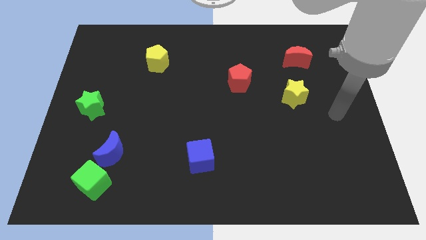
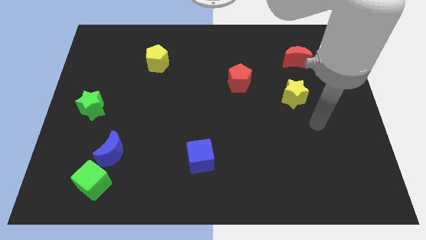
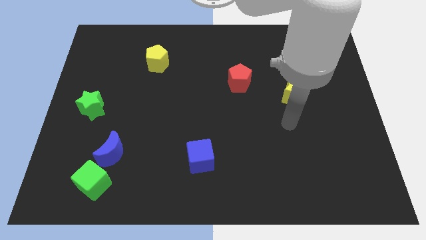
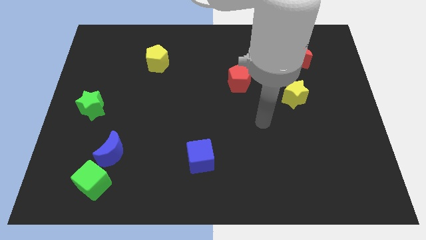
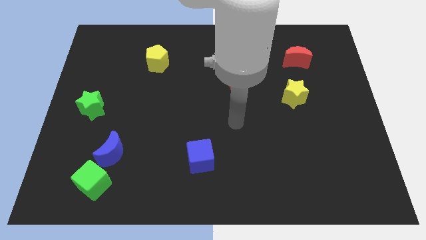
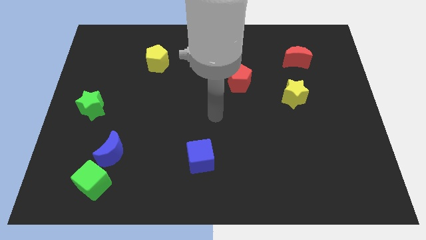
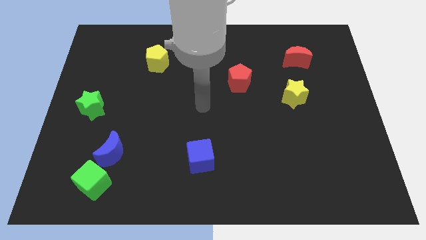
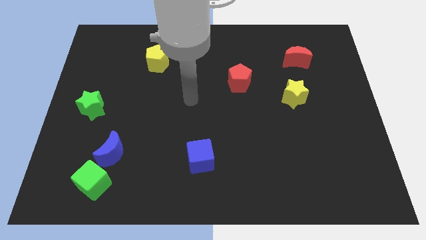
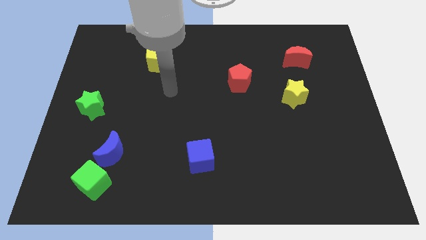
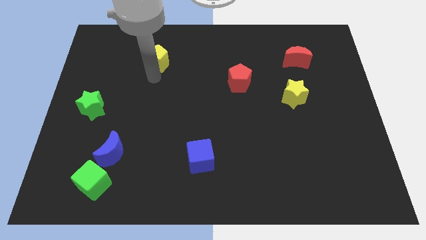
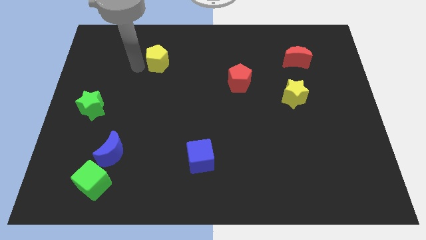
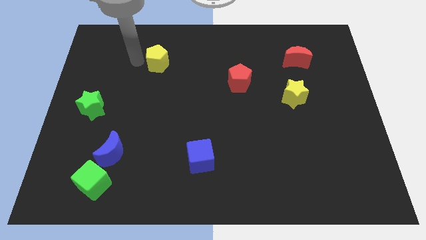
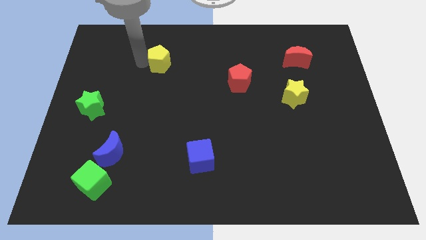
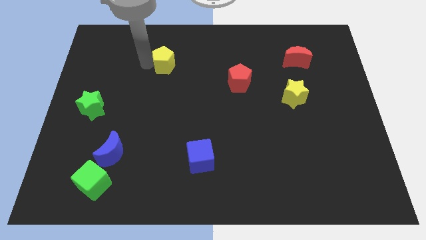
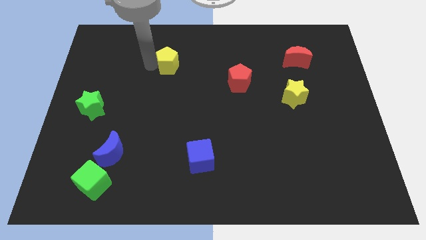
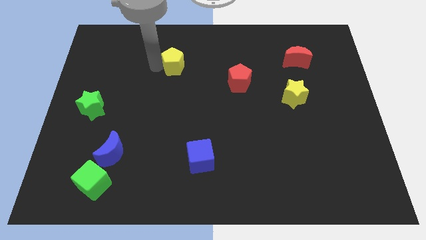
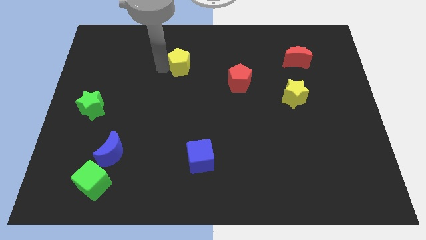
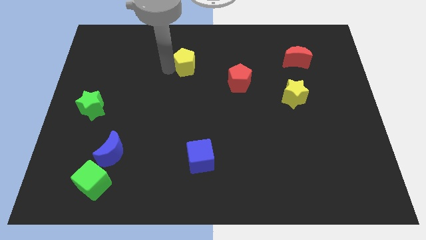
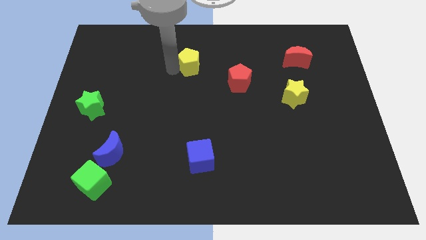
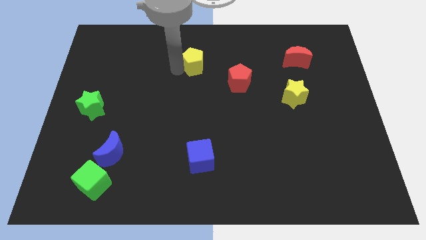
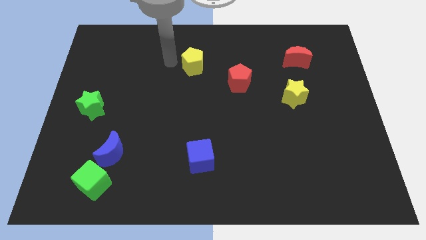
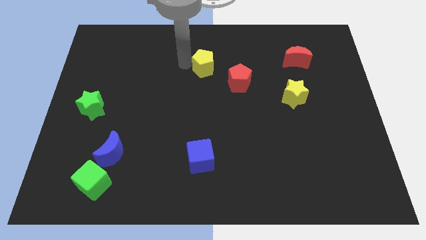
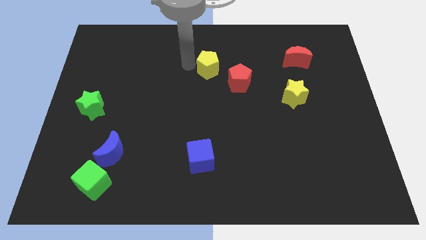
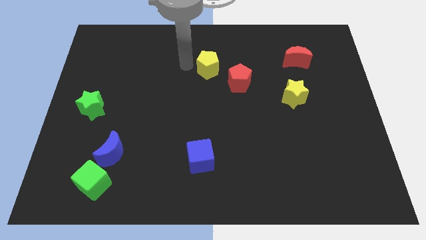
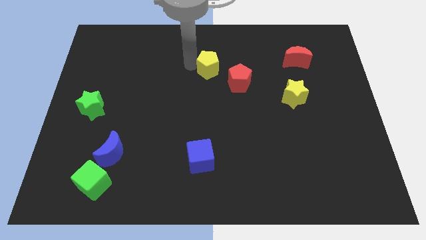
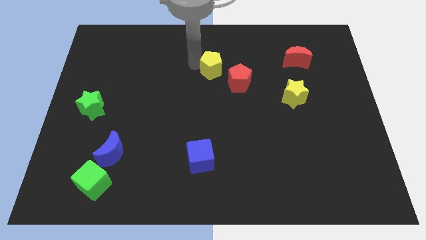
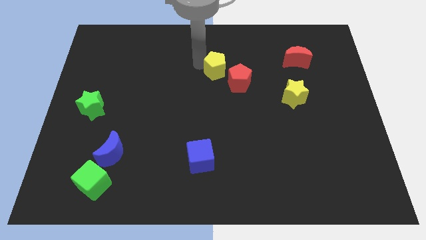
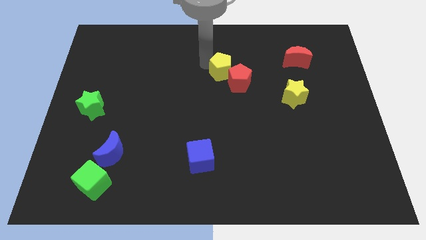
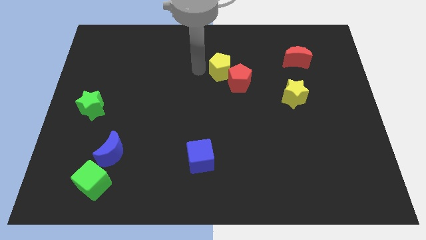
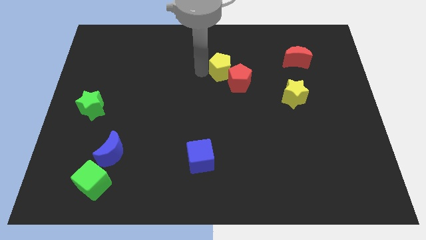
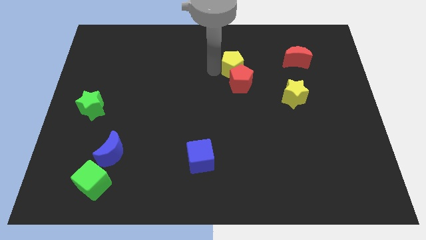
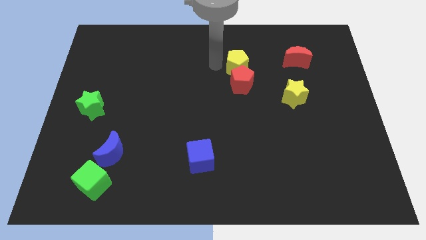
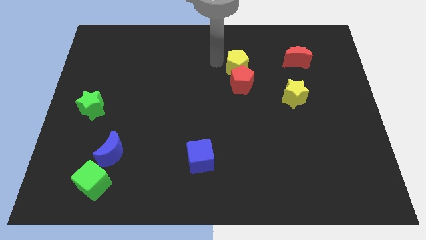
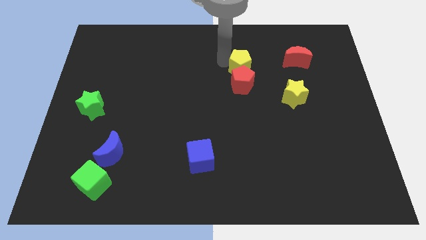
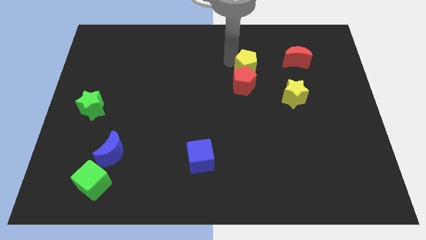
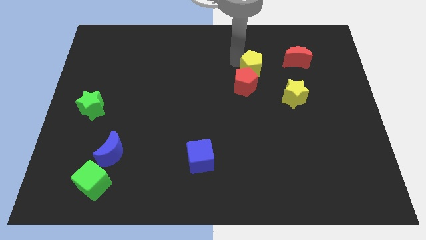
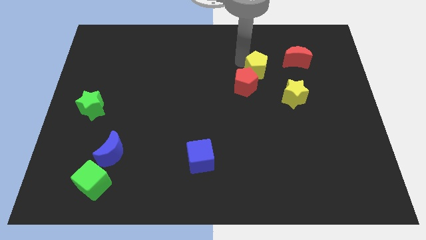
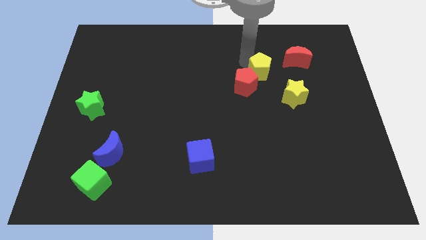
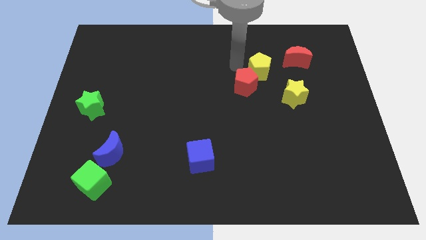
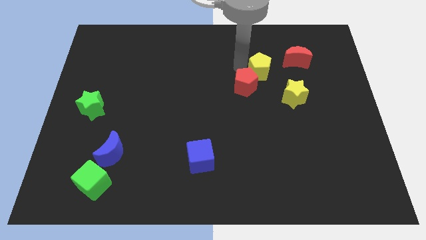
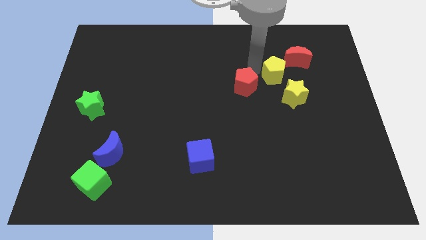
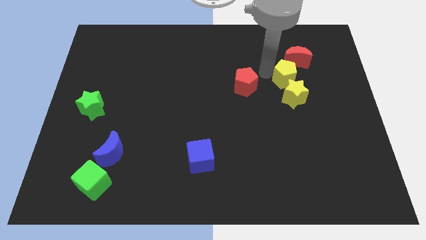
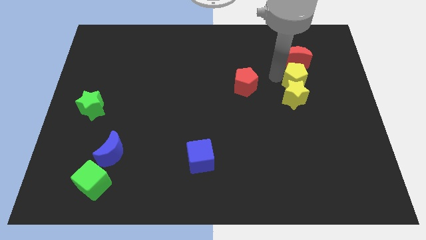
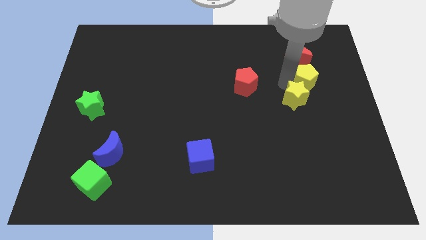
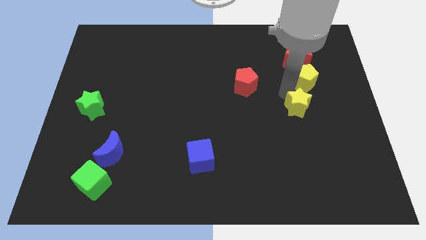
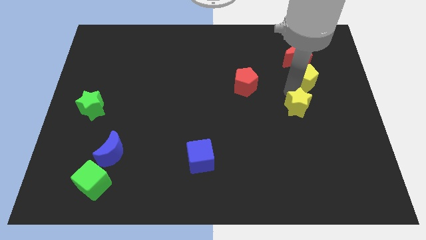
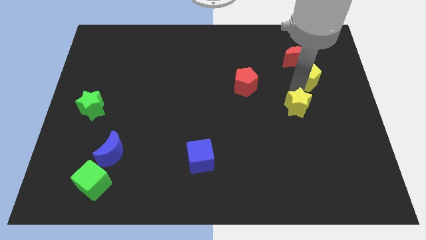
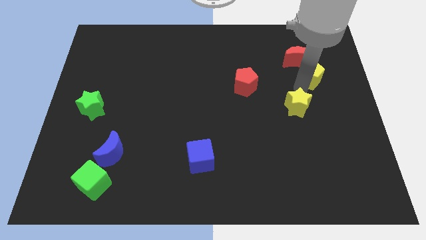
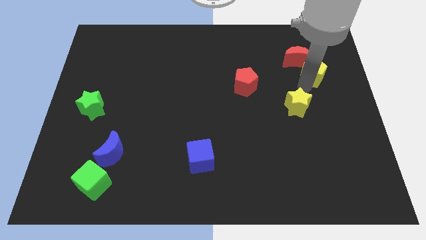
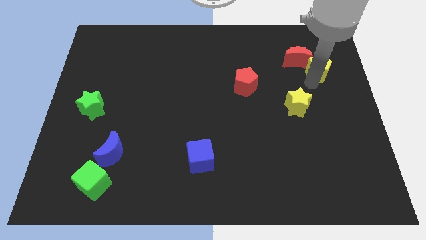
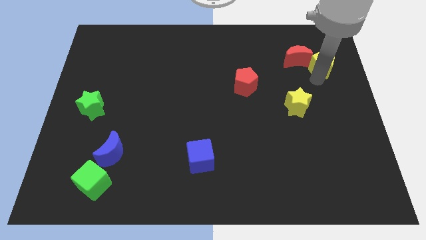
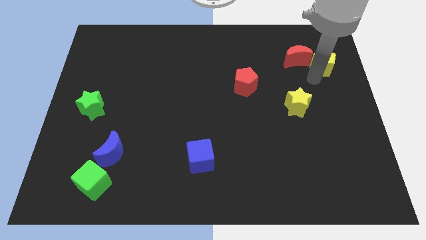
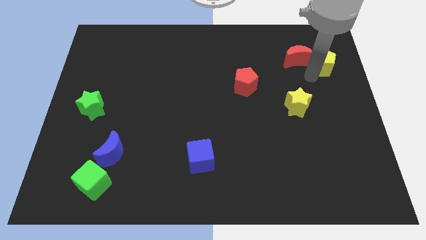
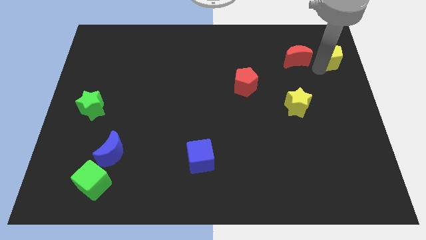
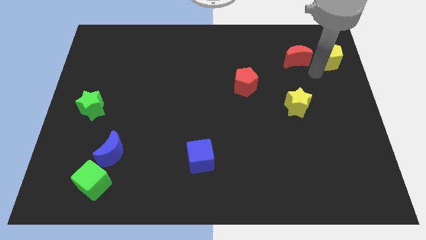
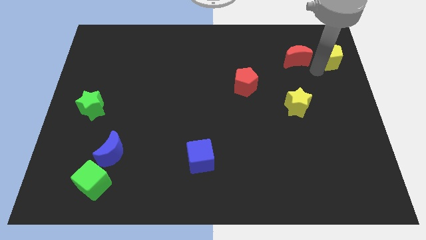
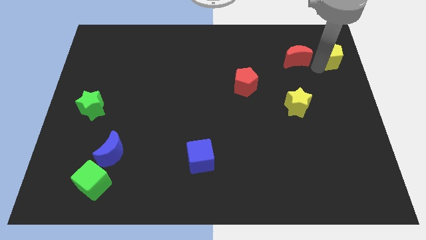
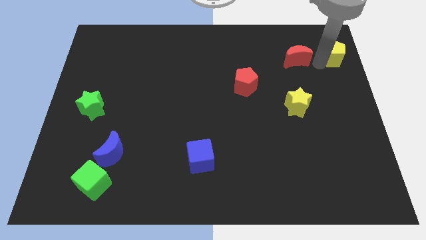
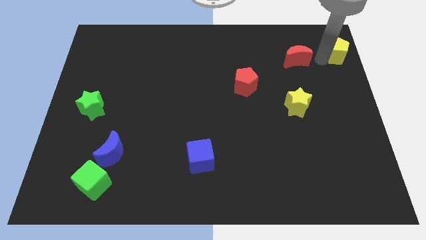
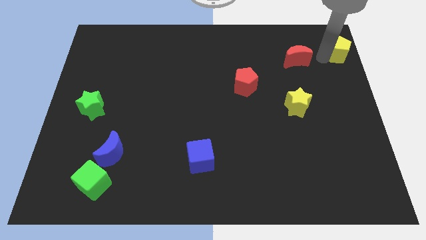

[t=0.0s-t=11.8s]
move the yellow pentagon to the top right corner
